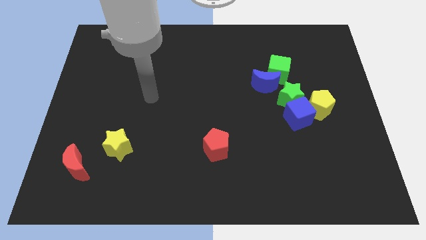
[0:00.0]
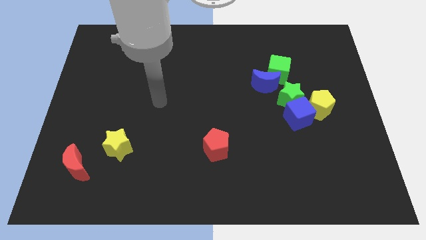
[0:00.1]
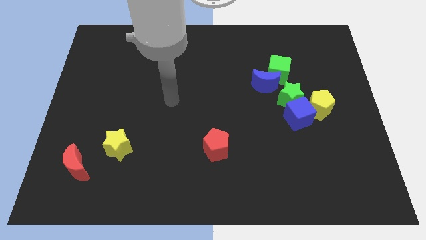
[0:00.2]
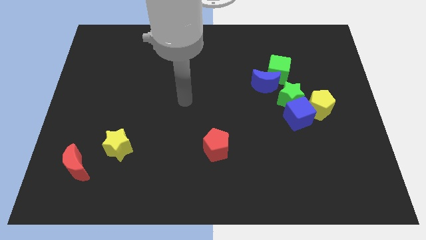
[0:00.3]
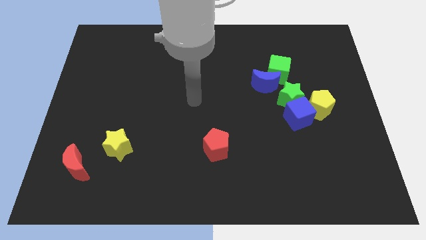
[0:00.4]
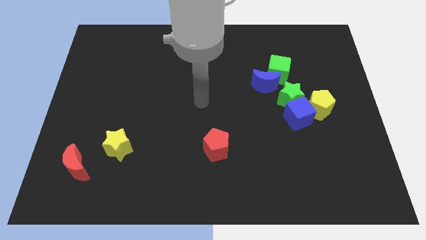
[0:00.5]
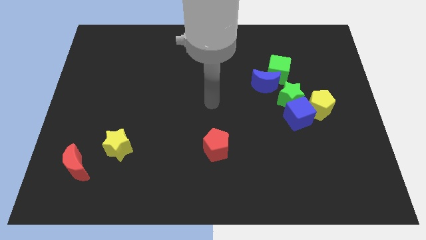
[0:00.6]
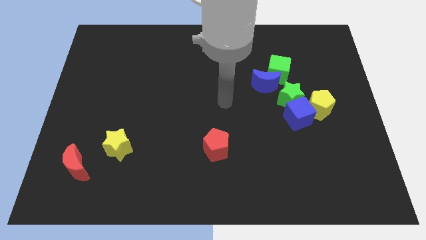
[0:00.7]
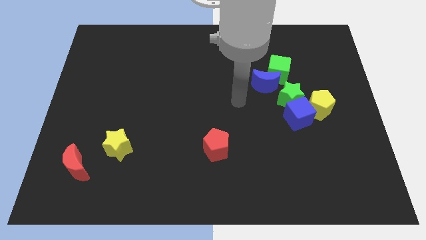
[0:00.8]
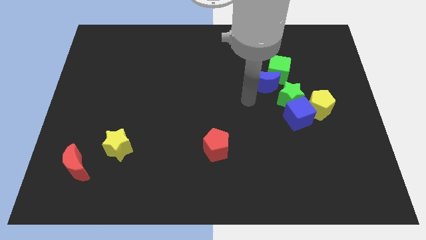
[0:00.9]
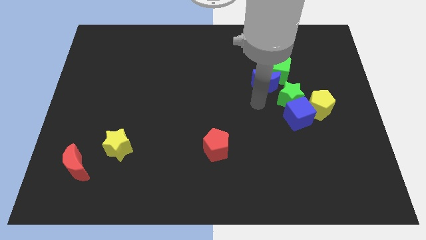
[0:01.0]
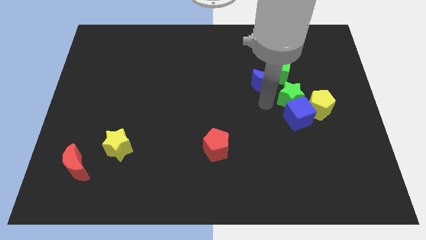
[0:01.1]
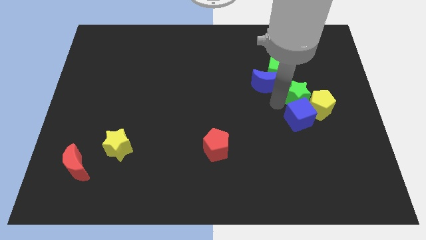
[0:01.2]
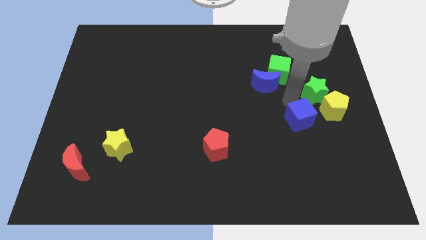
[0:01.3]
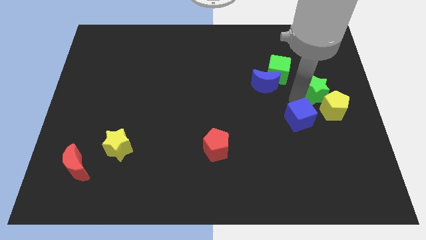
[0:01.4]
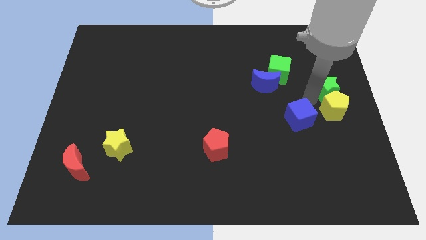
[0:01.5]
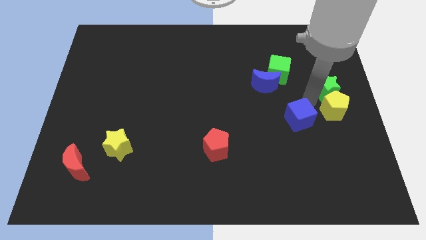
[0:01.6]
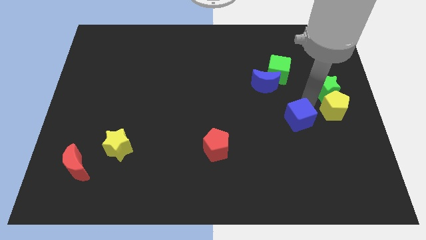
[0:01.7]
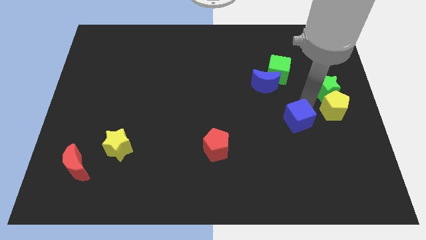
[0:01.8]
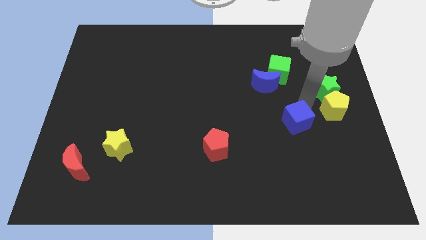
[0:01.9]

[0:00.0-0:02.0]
move the blue cube away from the green star and yellow pentagon

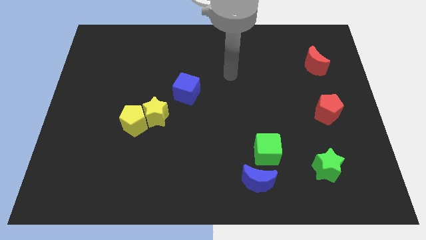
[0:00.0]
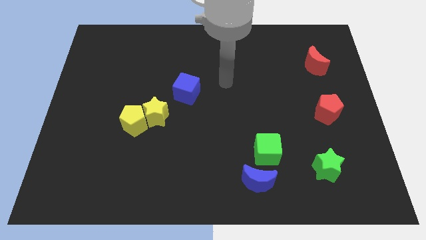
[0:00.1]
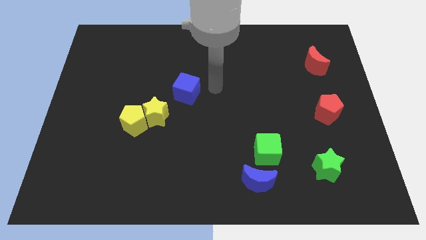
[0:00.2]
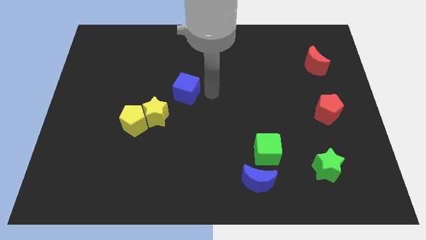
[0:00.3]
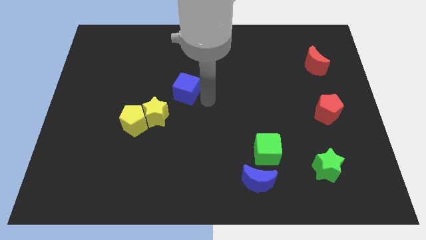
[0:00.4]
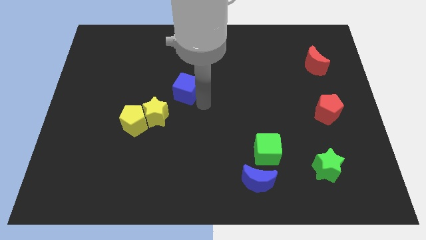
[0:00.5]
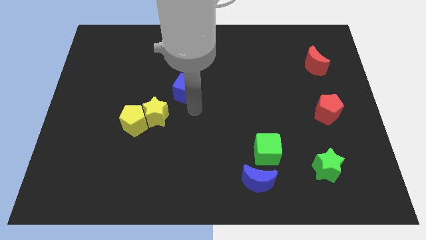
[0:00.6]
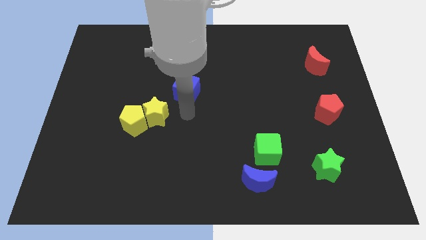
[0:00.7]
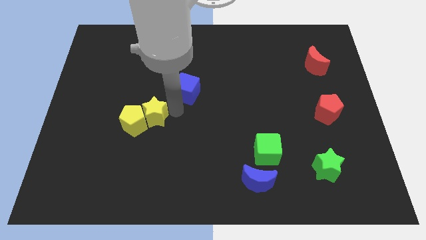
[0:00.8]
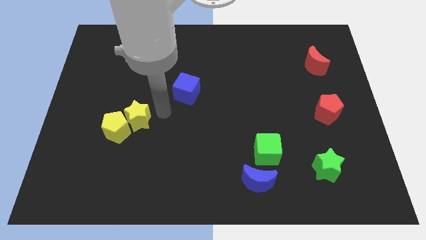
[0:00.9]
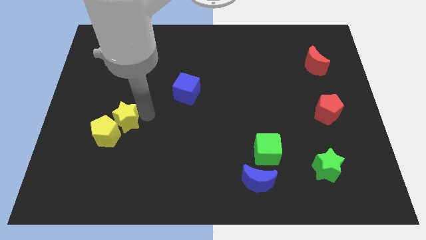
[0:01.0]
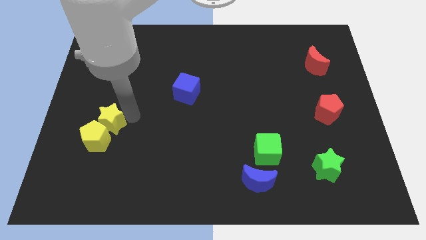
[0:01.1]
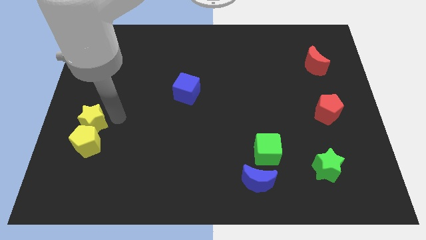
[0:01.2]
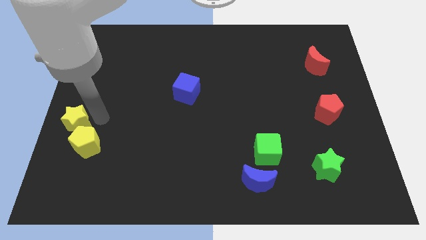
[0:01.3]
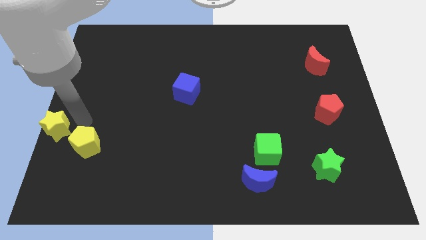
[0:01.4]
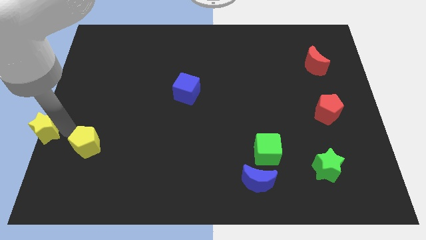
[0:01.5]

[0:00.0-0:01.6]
separate the yellow pentagon from the yellow star

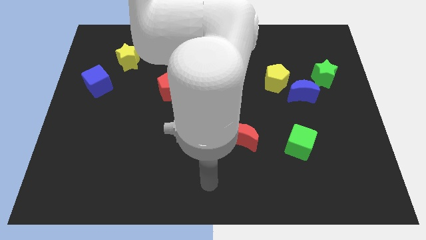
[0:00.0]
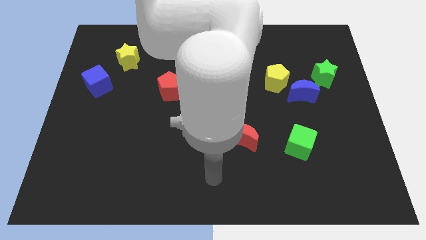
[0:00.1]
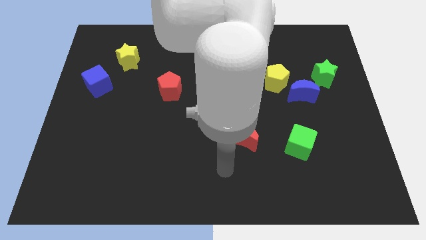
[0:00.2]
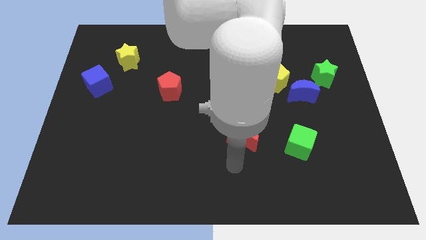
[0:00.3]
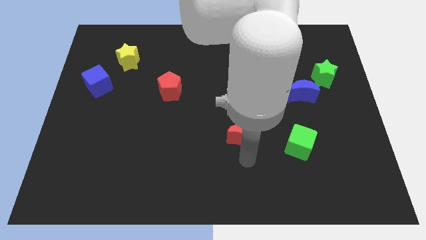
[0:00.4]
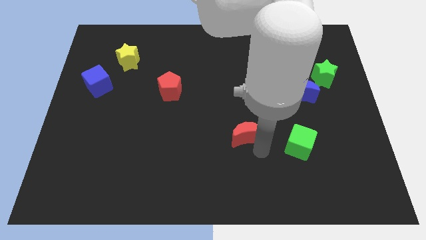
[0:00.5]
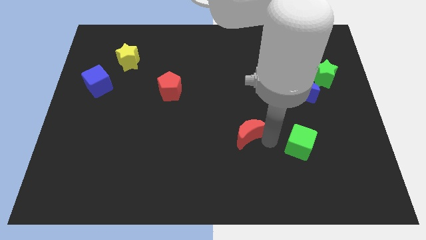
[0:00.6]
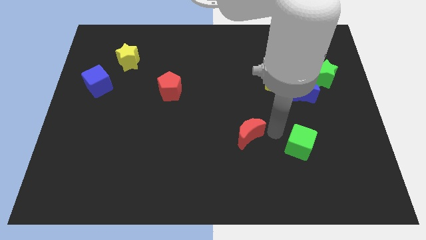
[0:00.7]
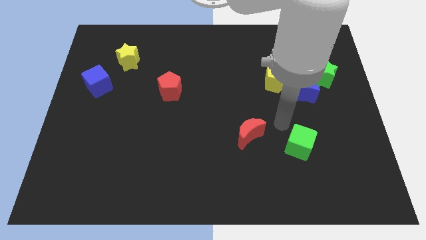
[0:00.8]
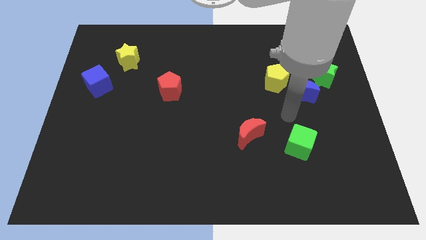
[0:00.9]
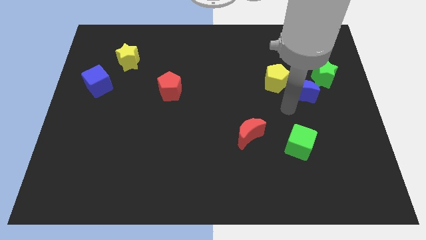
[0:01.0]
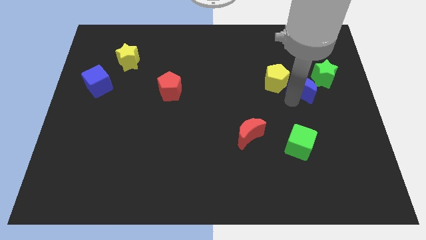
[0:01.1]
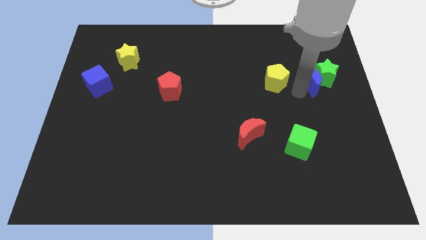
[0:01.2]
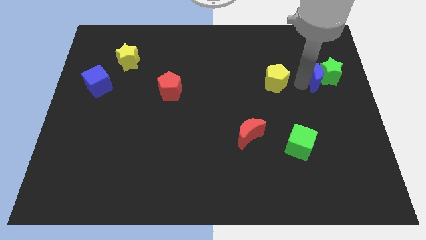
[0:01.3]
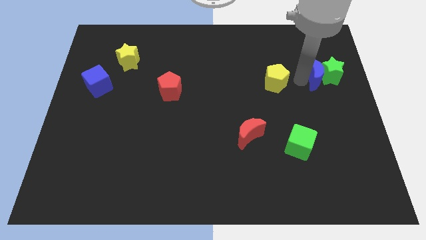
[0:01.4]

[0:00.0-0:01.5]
pull the yellow pentagon apart from the blue moon

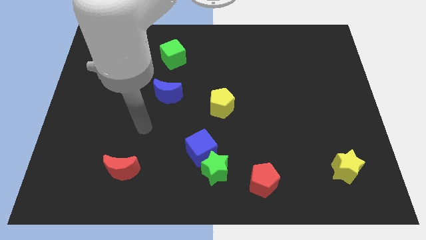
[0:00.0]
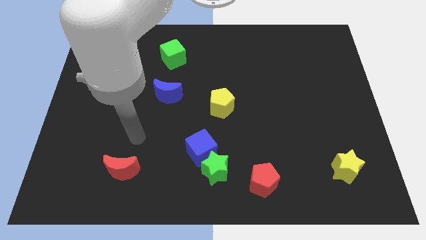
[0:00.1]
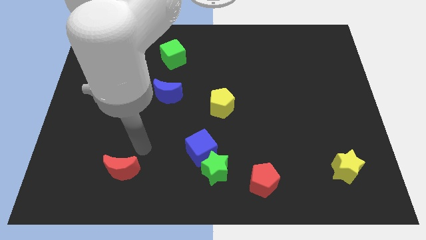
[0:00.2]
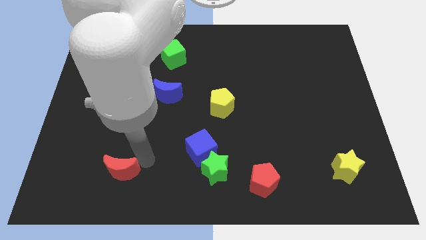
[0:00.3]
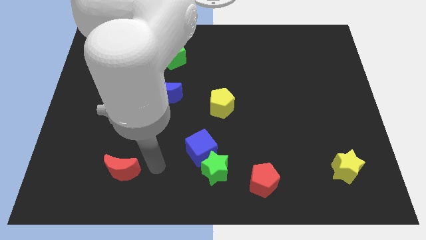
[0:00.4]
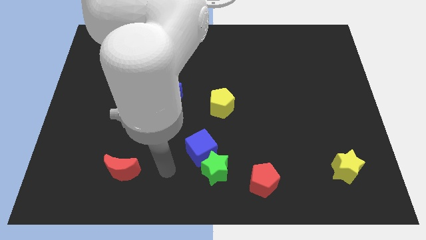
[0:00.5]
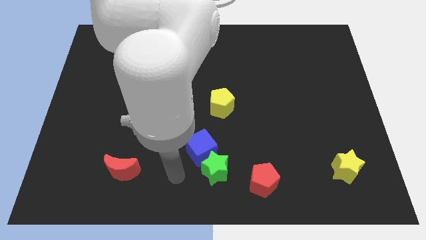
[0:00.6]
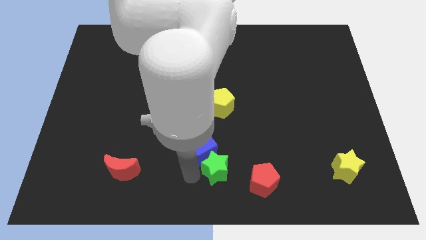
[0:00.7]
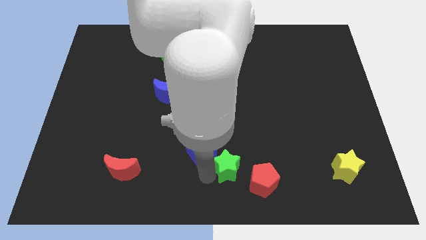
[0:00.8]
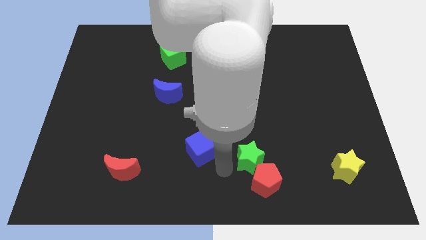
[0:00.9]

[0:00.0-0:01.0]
pull the blue cube apart from the green star

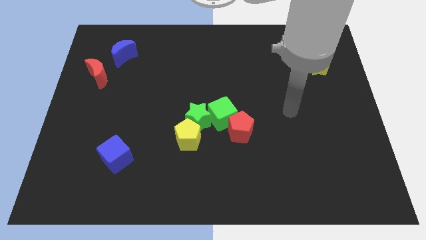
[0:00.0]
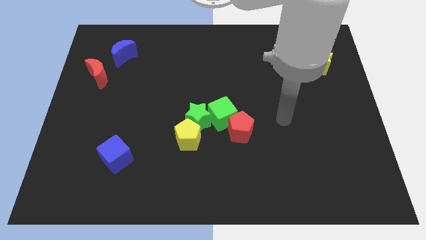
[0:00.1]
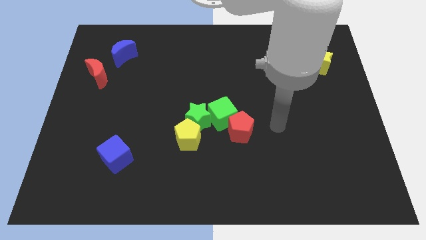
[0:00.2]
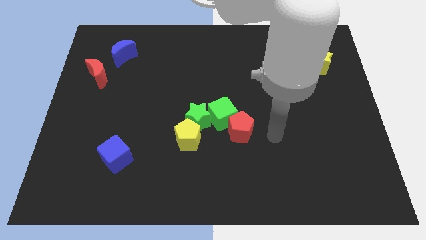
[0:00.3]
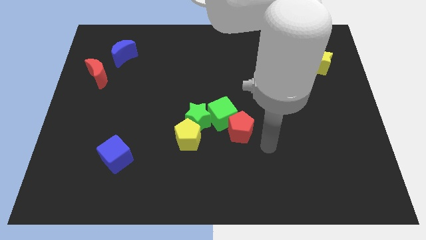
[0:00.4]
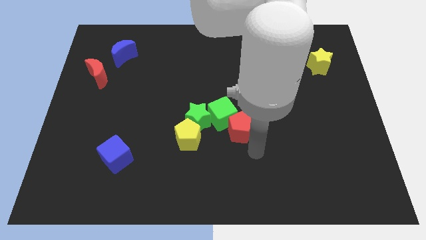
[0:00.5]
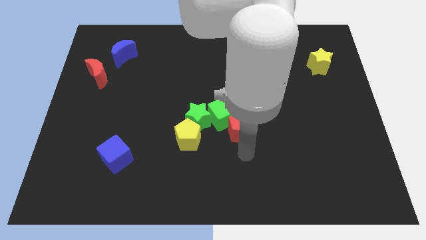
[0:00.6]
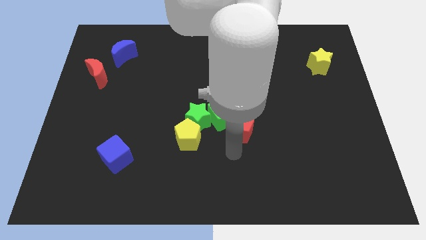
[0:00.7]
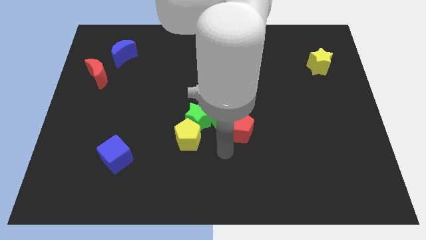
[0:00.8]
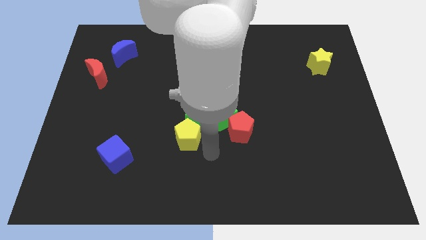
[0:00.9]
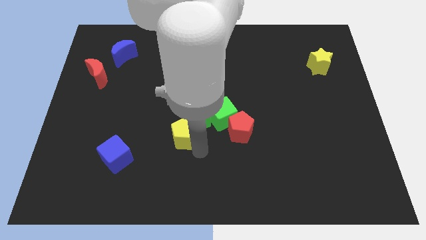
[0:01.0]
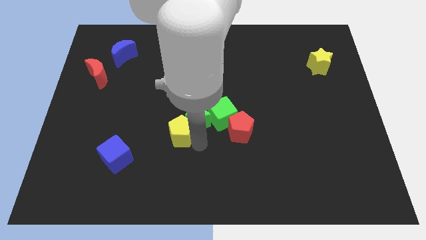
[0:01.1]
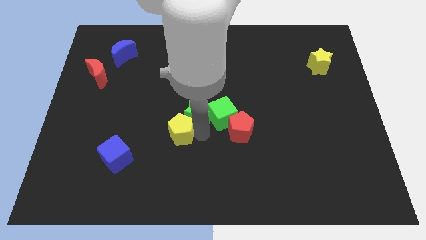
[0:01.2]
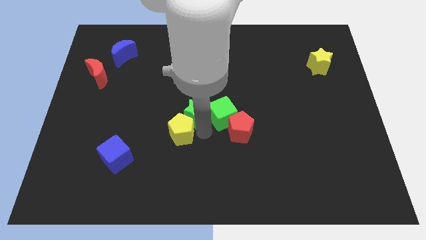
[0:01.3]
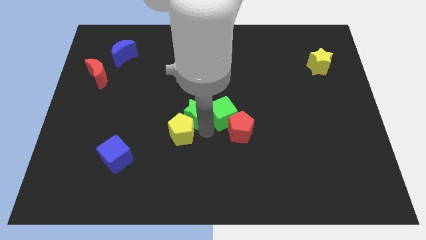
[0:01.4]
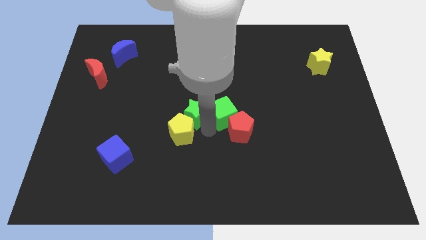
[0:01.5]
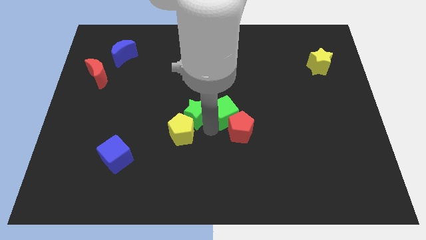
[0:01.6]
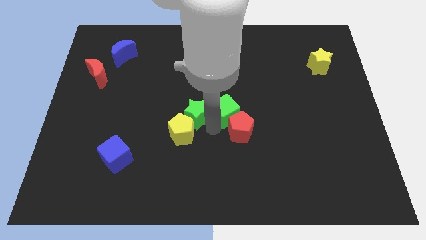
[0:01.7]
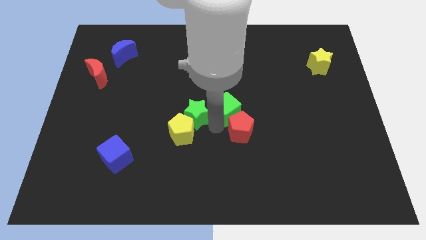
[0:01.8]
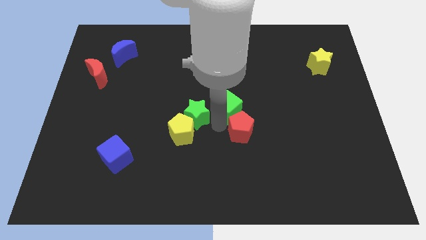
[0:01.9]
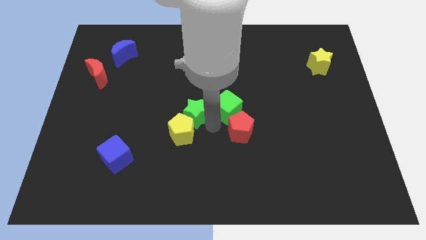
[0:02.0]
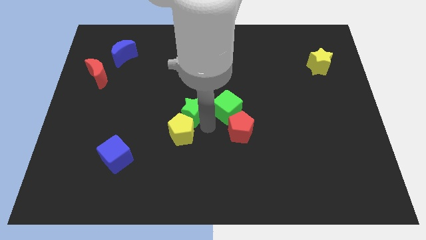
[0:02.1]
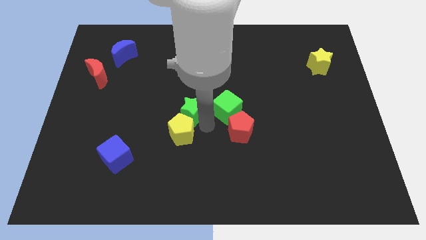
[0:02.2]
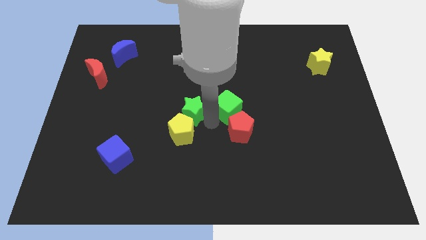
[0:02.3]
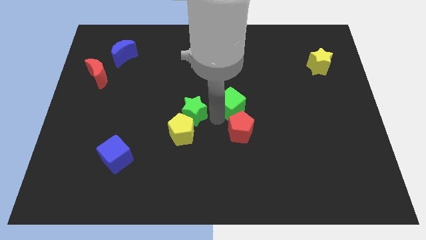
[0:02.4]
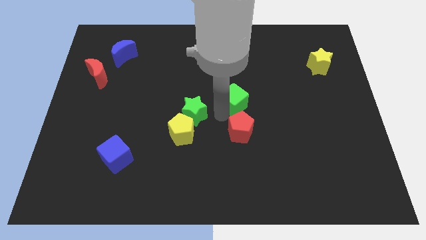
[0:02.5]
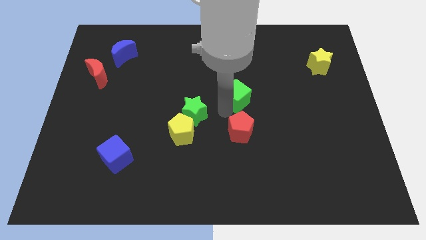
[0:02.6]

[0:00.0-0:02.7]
separate the green cube from the group

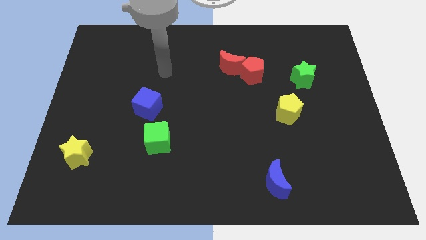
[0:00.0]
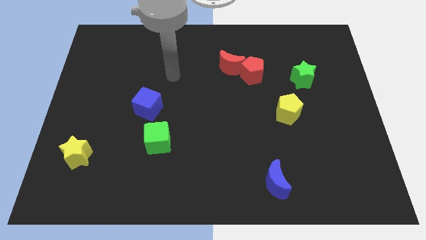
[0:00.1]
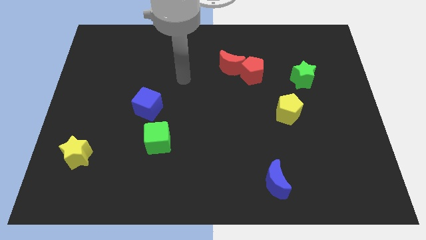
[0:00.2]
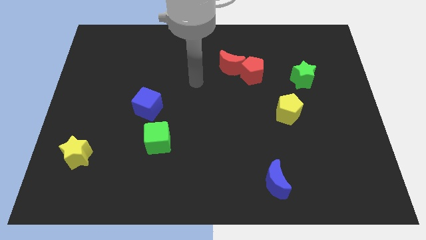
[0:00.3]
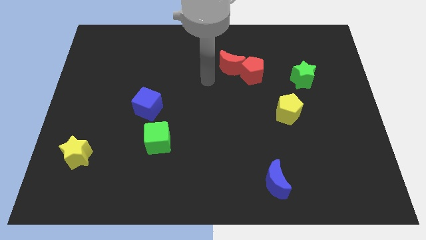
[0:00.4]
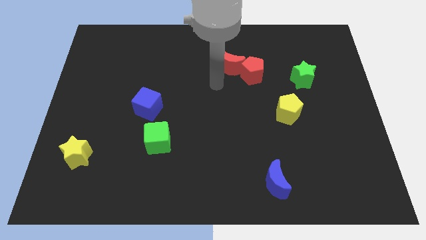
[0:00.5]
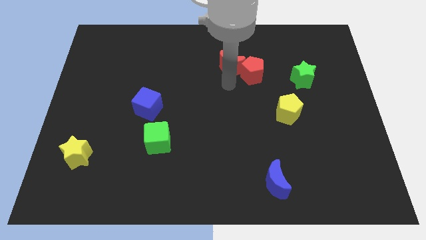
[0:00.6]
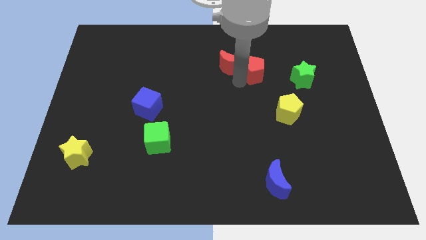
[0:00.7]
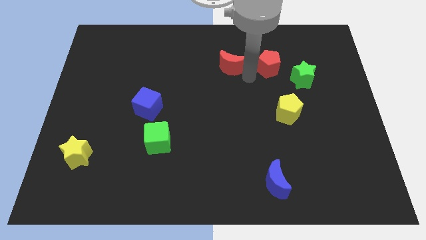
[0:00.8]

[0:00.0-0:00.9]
separate the red moon from the red pentagon
